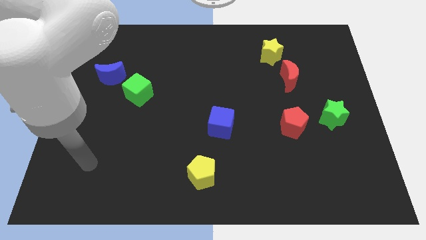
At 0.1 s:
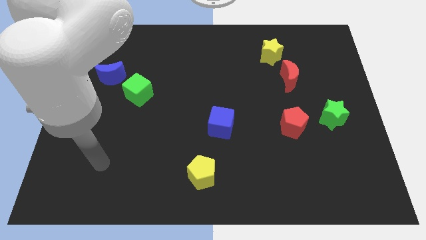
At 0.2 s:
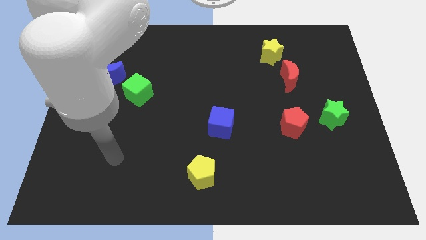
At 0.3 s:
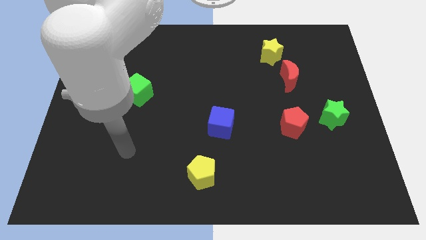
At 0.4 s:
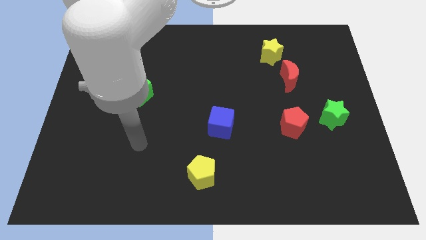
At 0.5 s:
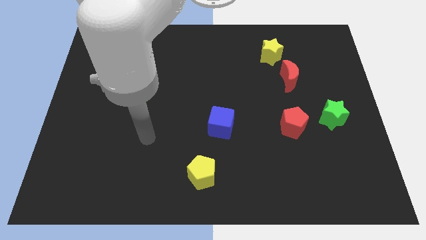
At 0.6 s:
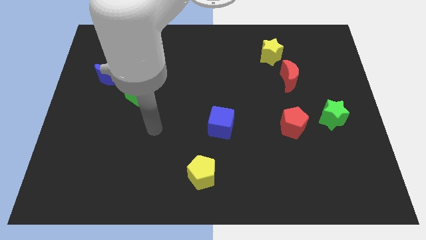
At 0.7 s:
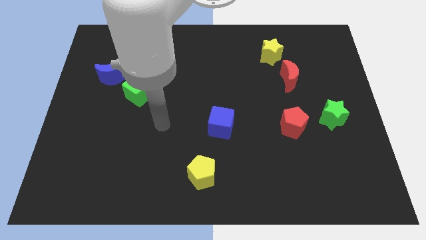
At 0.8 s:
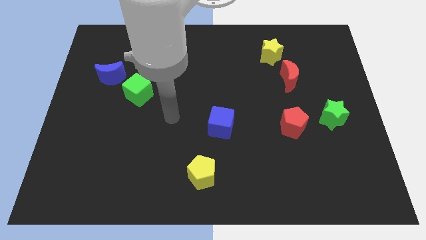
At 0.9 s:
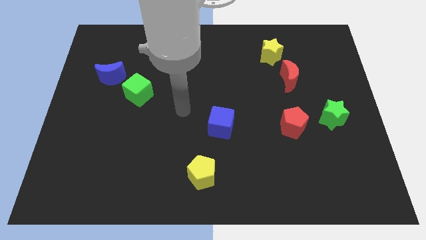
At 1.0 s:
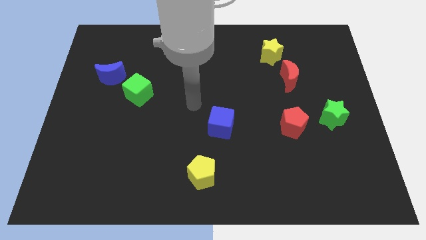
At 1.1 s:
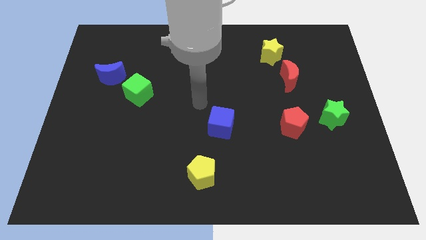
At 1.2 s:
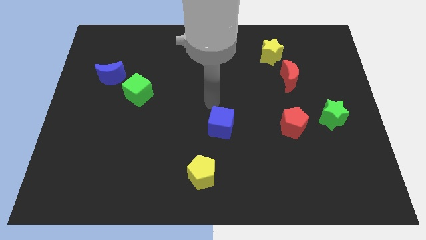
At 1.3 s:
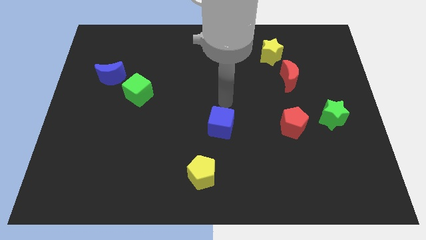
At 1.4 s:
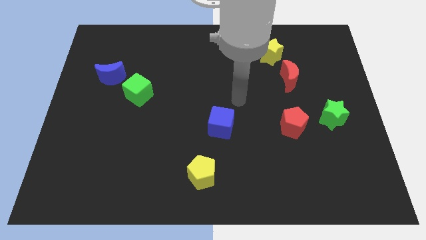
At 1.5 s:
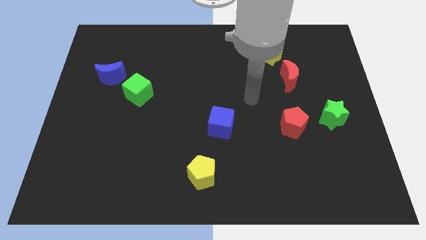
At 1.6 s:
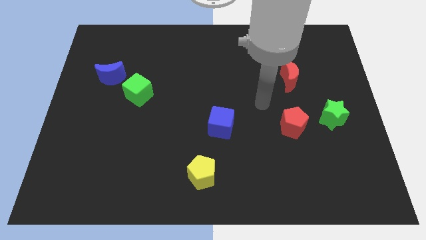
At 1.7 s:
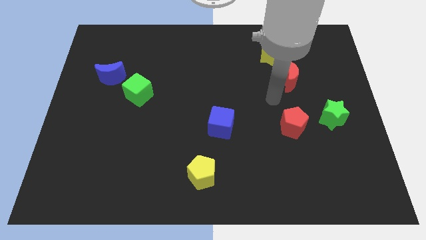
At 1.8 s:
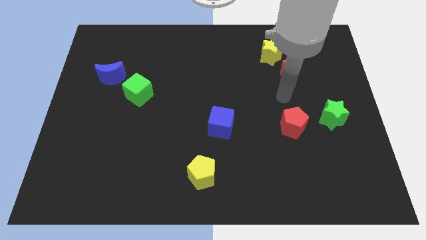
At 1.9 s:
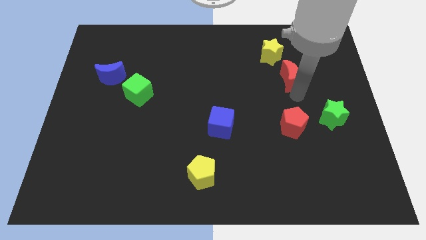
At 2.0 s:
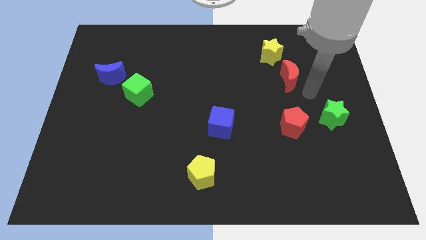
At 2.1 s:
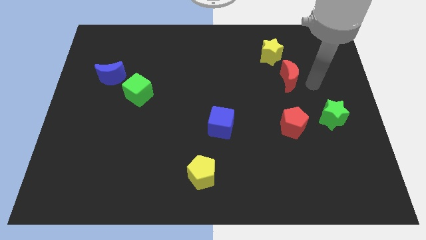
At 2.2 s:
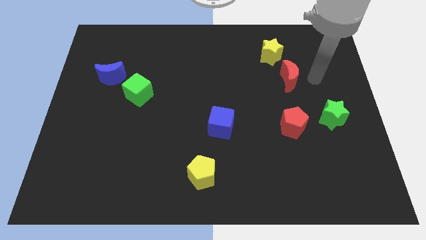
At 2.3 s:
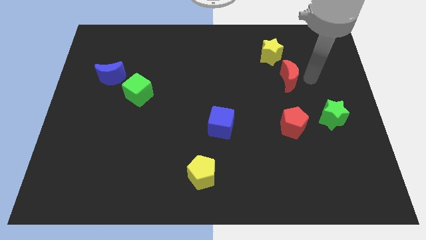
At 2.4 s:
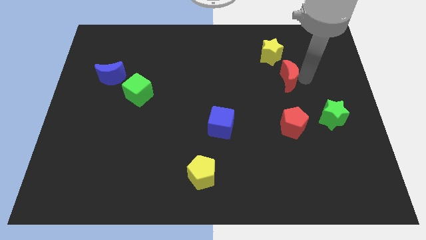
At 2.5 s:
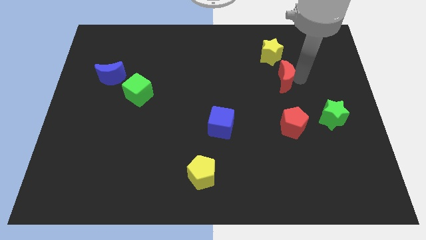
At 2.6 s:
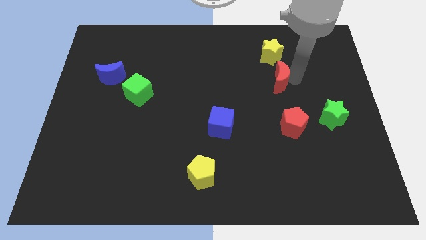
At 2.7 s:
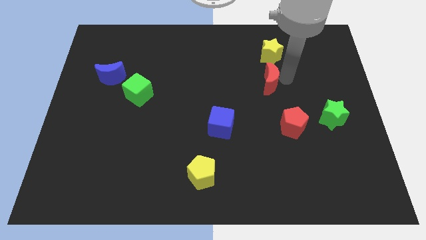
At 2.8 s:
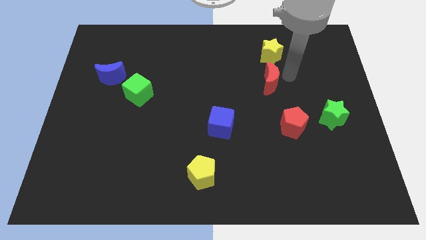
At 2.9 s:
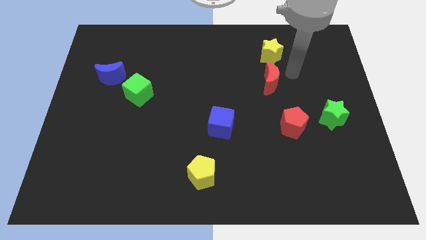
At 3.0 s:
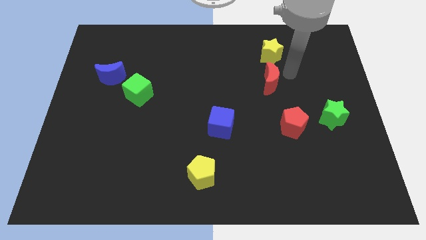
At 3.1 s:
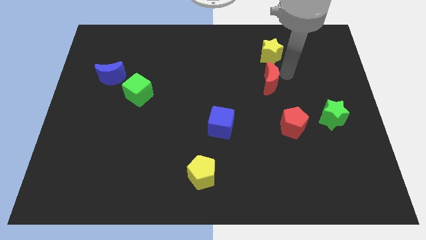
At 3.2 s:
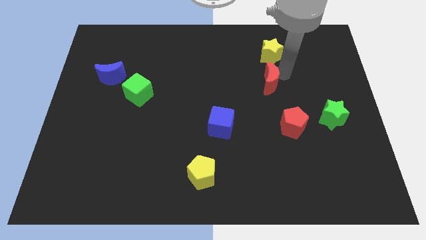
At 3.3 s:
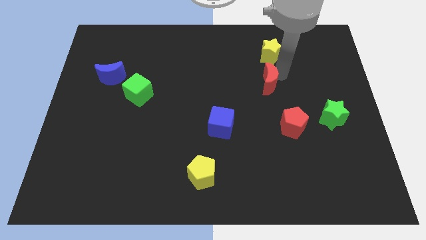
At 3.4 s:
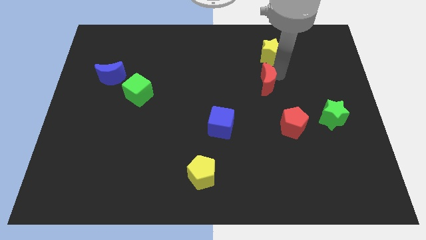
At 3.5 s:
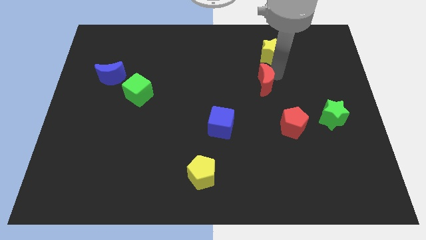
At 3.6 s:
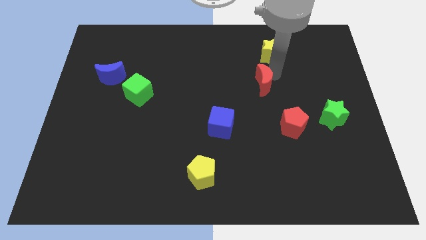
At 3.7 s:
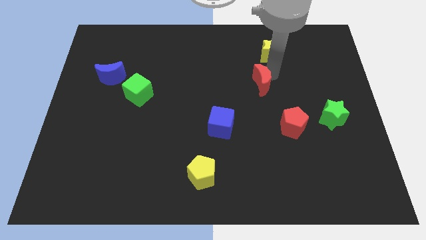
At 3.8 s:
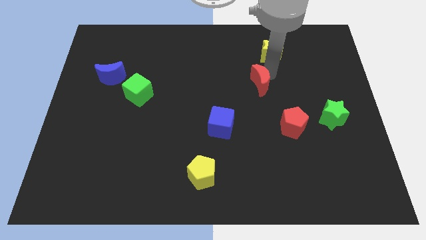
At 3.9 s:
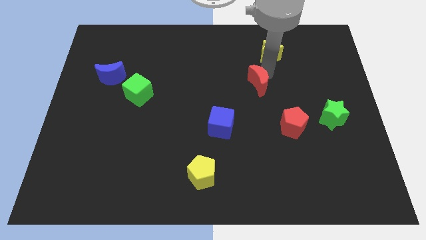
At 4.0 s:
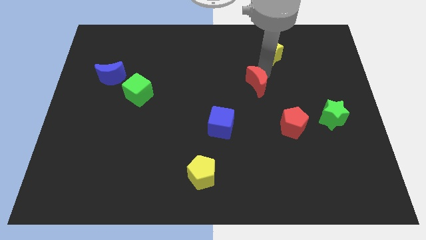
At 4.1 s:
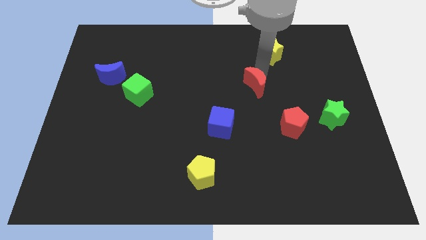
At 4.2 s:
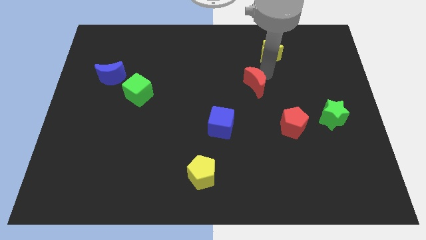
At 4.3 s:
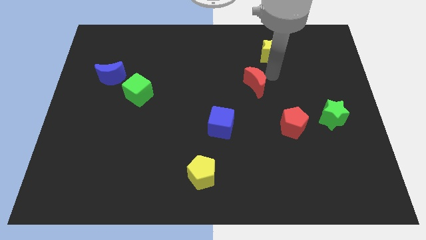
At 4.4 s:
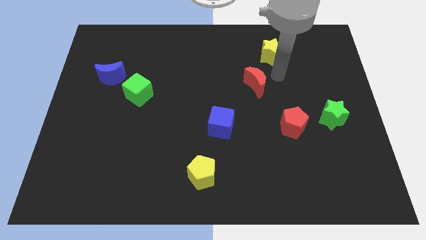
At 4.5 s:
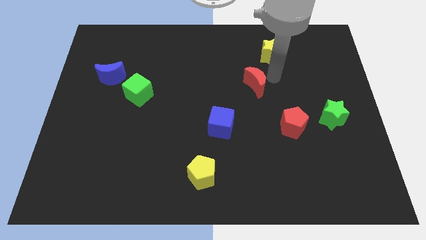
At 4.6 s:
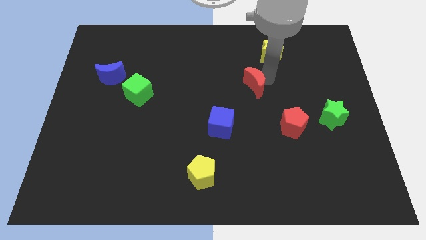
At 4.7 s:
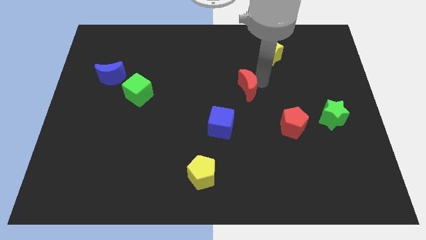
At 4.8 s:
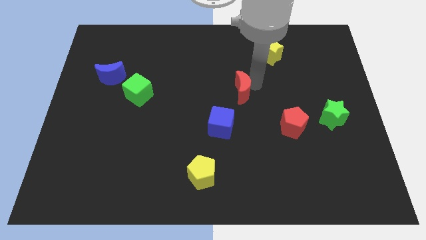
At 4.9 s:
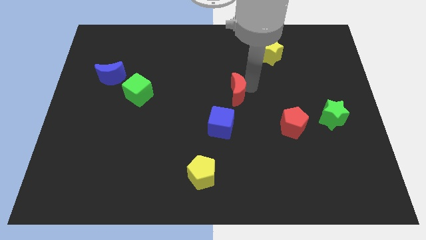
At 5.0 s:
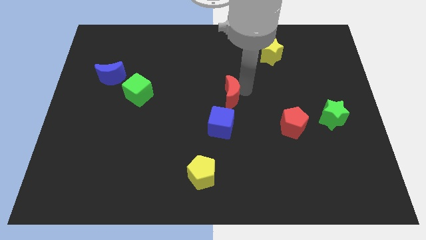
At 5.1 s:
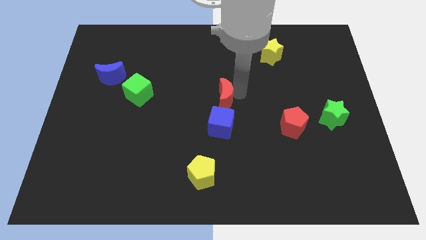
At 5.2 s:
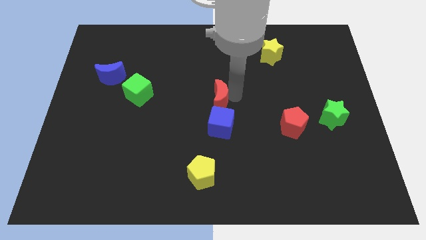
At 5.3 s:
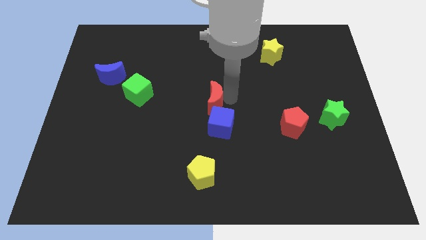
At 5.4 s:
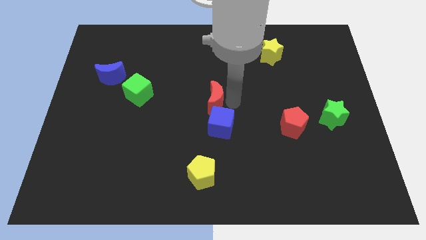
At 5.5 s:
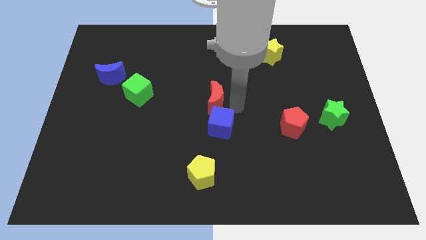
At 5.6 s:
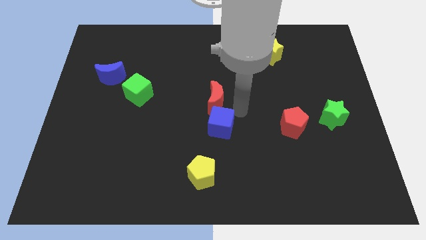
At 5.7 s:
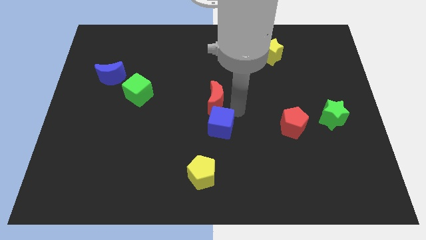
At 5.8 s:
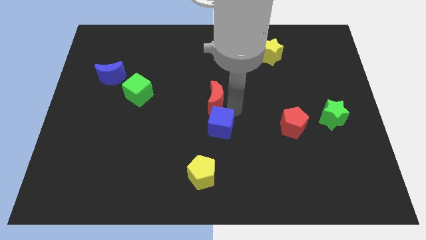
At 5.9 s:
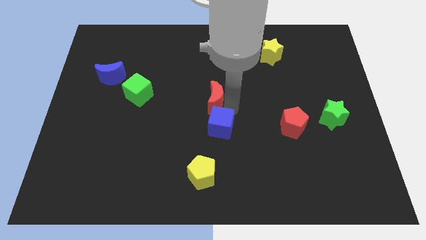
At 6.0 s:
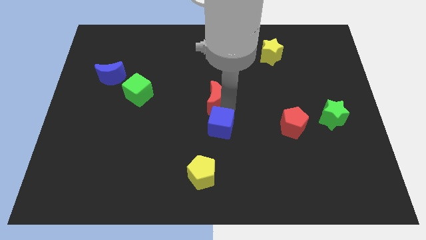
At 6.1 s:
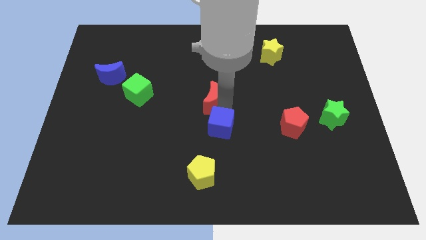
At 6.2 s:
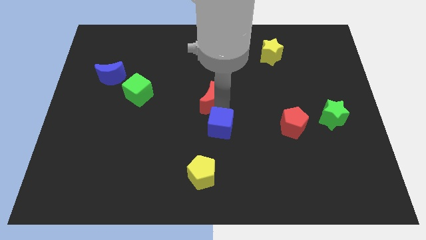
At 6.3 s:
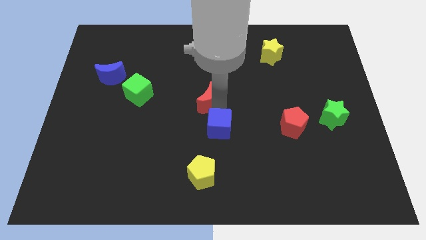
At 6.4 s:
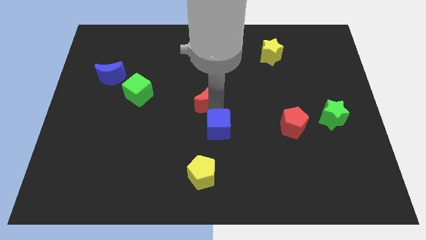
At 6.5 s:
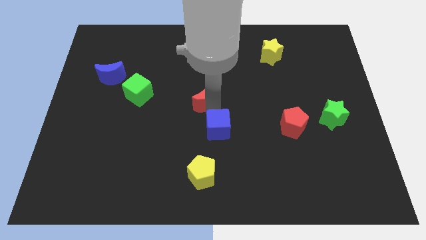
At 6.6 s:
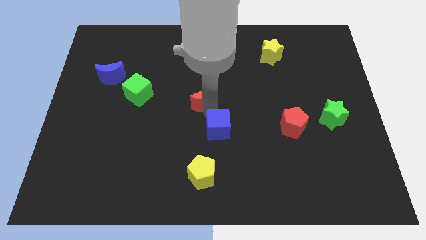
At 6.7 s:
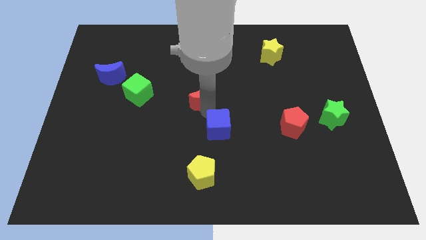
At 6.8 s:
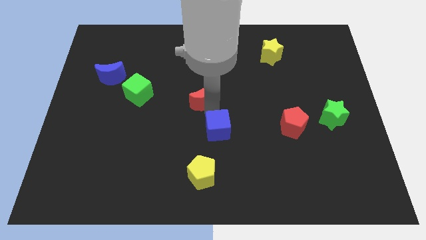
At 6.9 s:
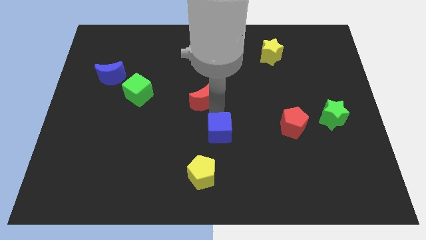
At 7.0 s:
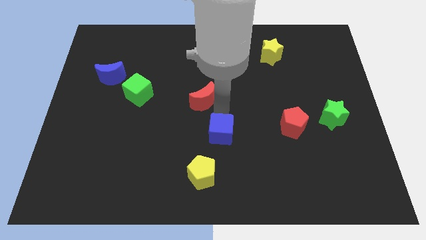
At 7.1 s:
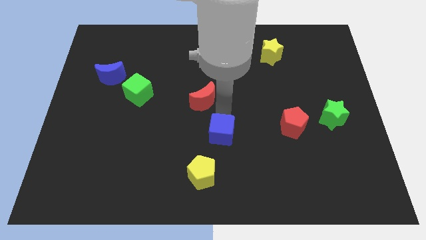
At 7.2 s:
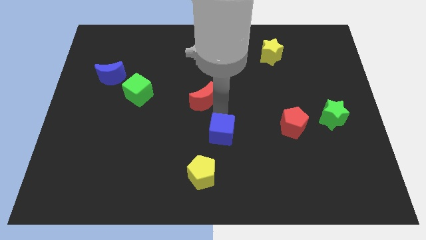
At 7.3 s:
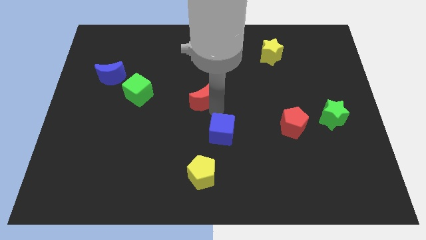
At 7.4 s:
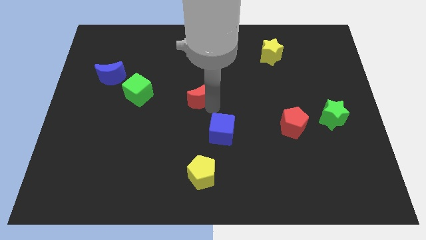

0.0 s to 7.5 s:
push the red moon to the left

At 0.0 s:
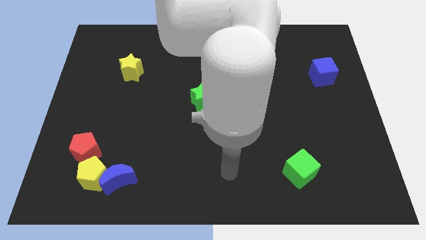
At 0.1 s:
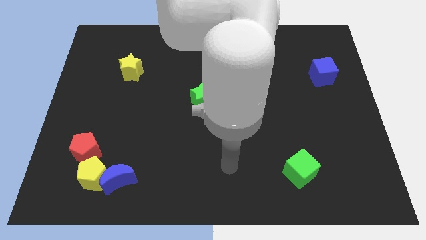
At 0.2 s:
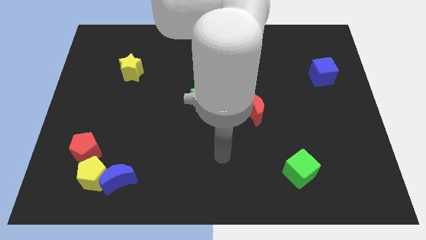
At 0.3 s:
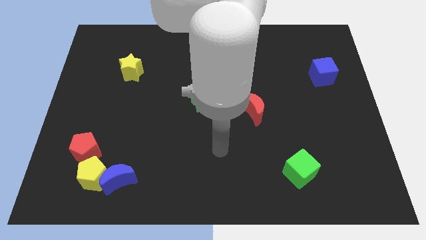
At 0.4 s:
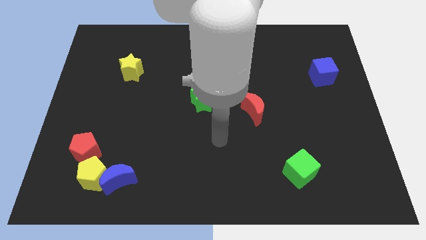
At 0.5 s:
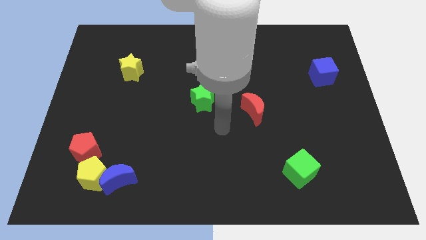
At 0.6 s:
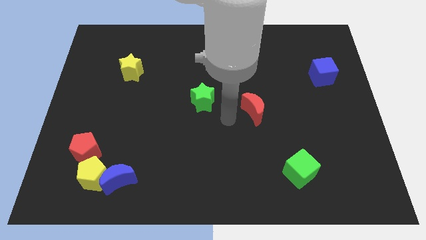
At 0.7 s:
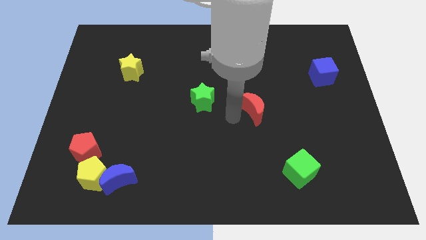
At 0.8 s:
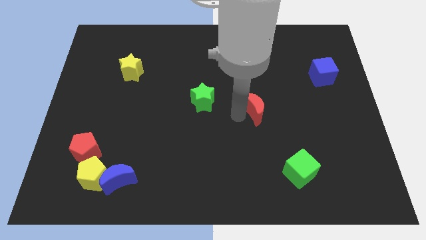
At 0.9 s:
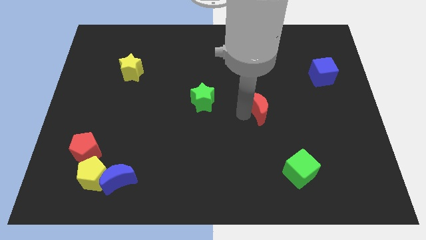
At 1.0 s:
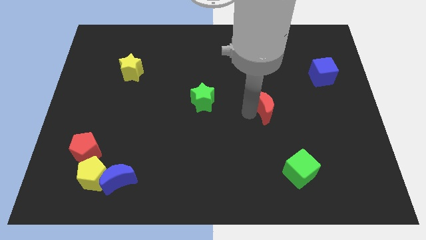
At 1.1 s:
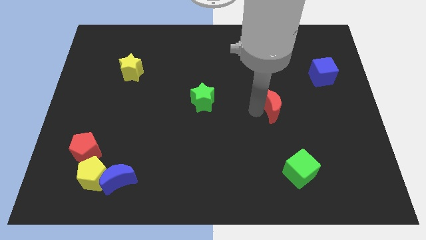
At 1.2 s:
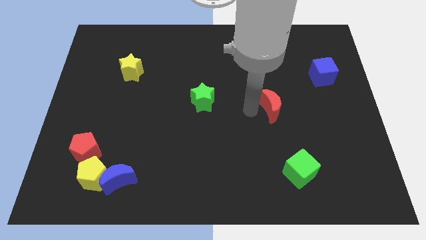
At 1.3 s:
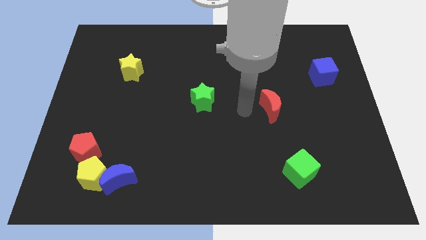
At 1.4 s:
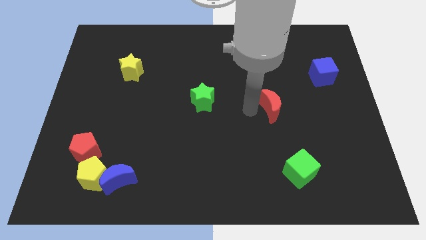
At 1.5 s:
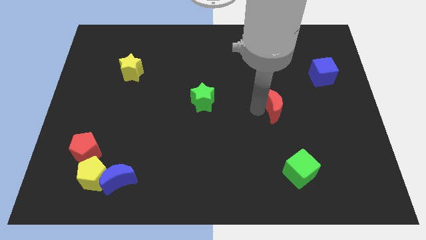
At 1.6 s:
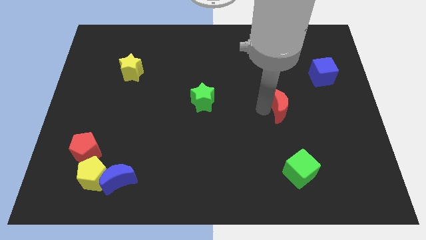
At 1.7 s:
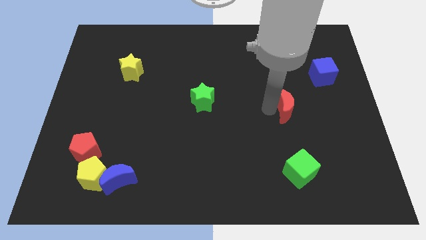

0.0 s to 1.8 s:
slightly move the red moon right
